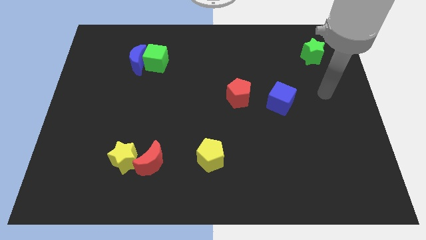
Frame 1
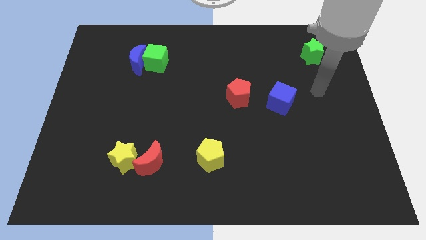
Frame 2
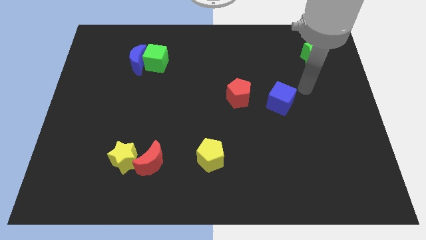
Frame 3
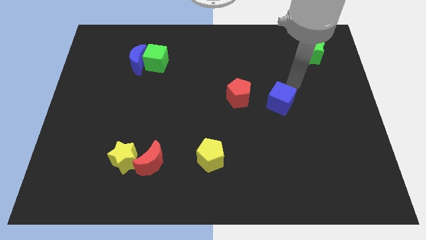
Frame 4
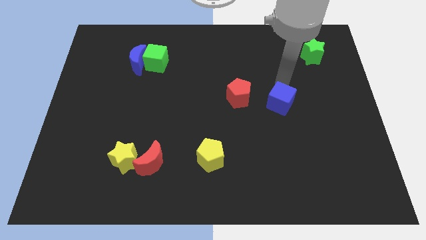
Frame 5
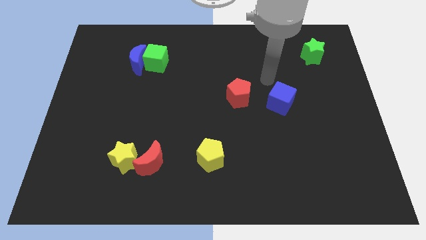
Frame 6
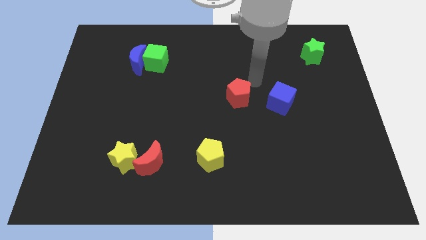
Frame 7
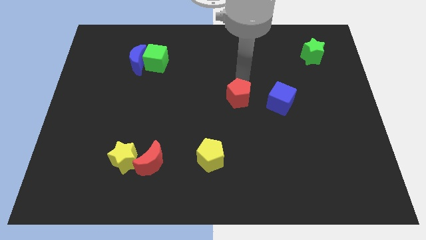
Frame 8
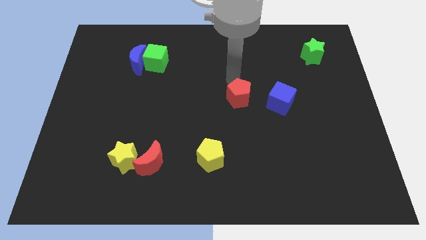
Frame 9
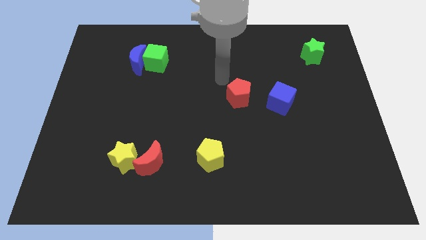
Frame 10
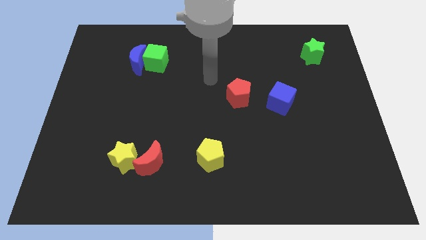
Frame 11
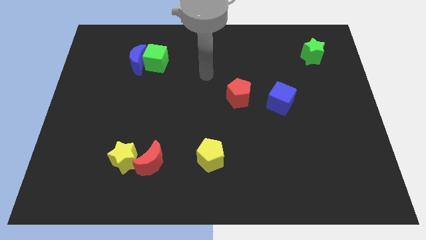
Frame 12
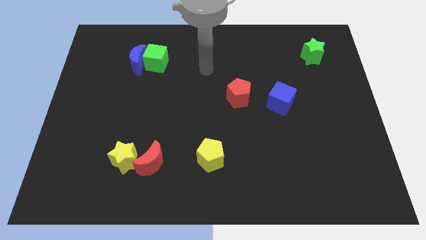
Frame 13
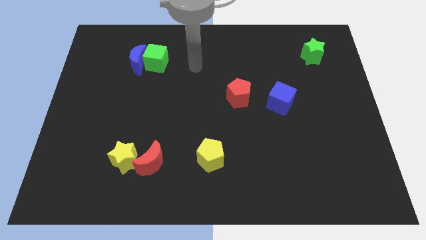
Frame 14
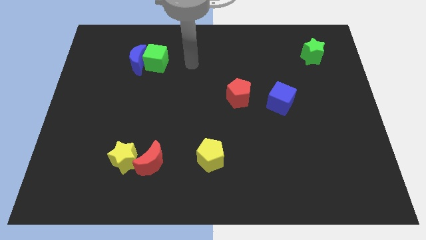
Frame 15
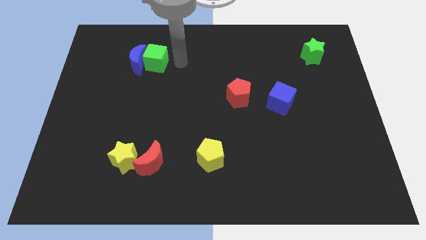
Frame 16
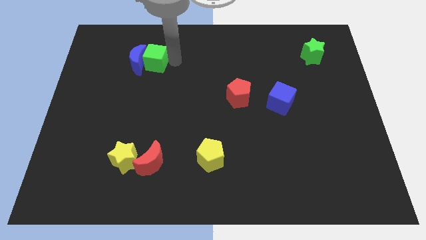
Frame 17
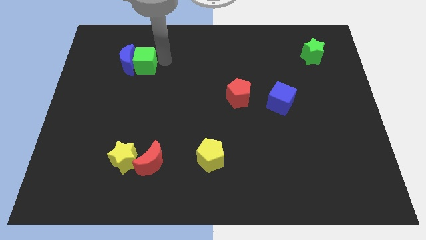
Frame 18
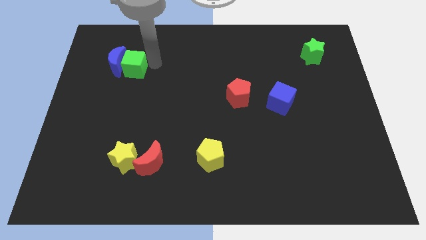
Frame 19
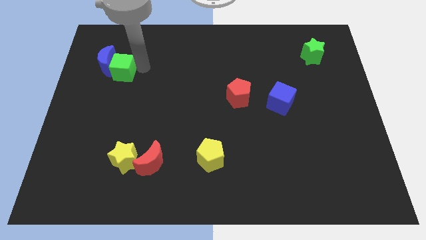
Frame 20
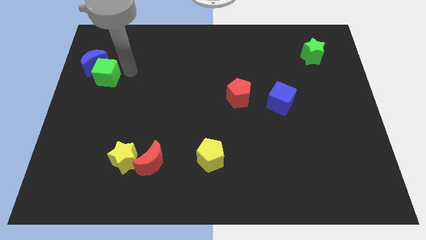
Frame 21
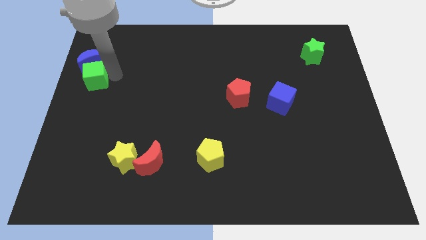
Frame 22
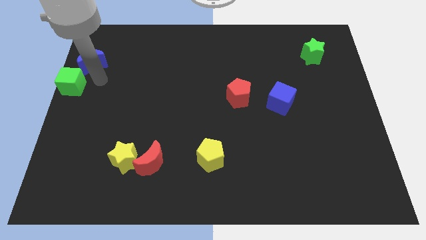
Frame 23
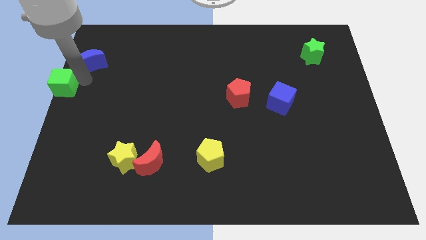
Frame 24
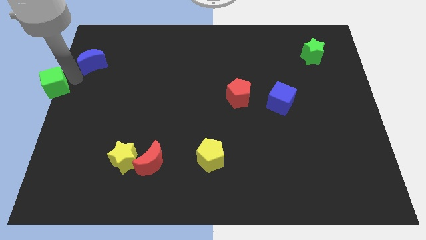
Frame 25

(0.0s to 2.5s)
move the blue moon away from the green cube

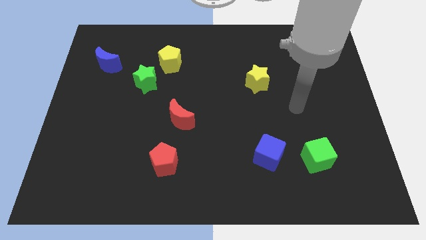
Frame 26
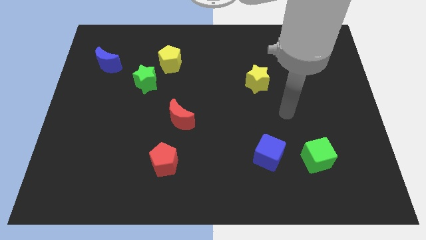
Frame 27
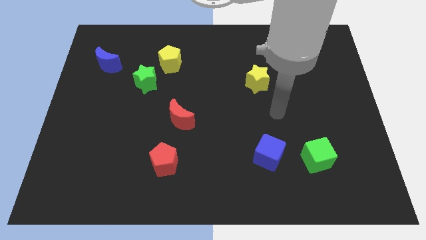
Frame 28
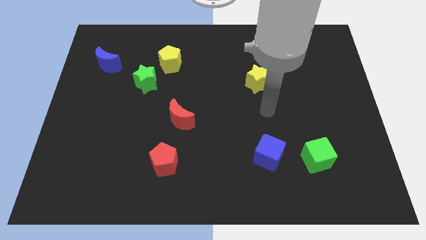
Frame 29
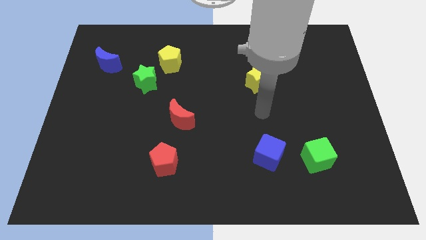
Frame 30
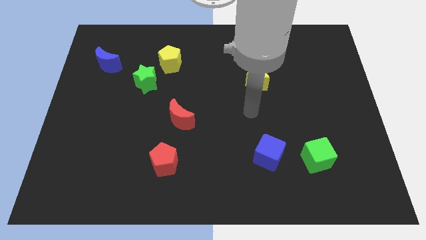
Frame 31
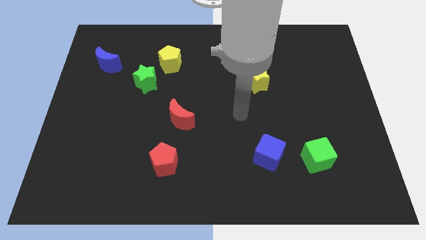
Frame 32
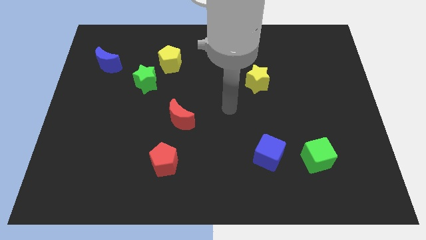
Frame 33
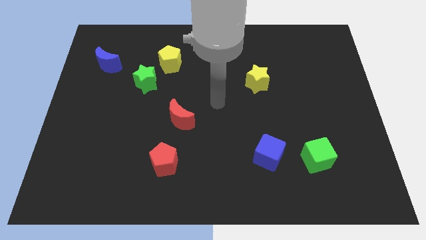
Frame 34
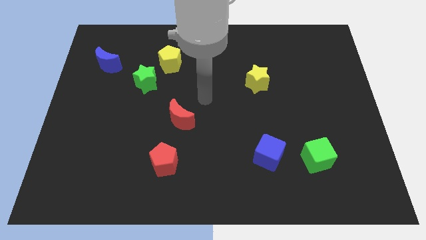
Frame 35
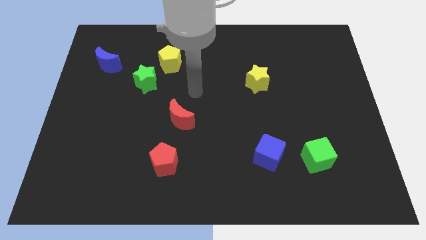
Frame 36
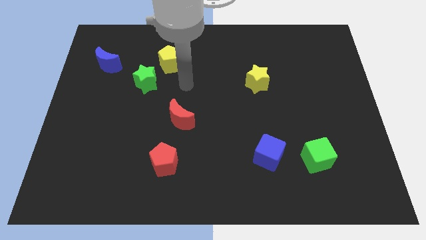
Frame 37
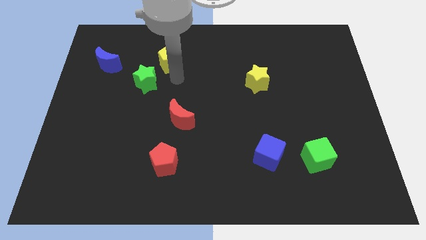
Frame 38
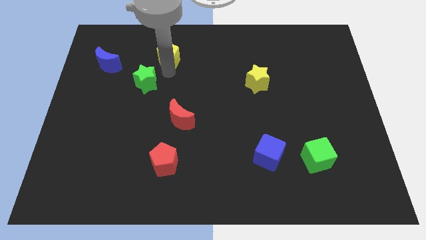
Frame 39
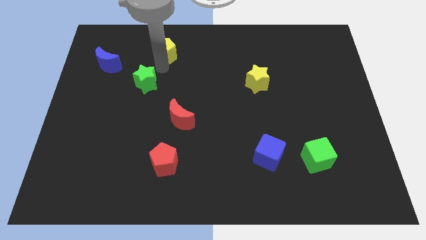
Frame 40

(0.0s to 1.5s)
pull the green star apart from the yellow pentagon

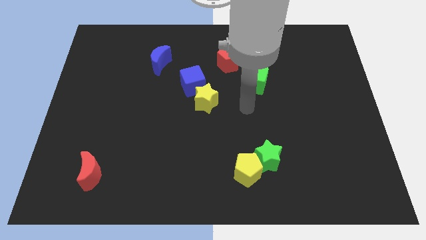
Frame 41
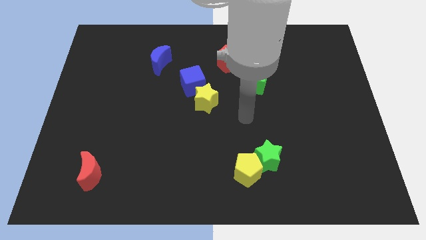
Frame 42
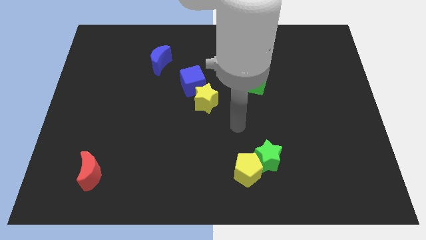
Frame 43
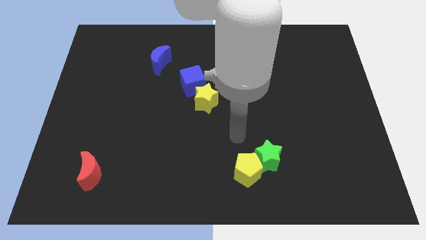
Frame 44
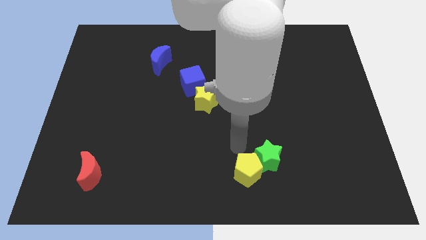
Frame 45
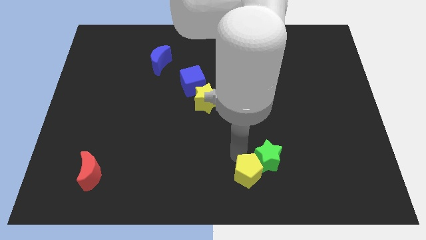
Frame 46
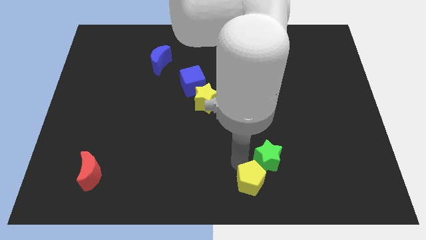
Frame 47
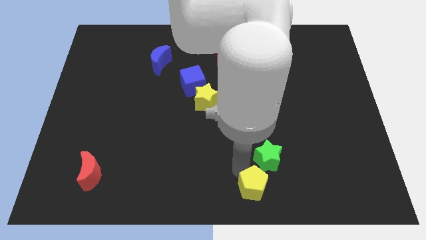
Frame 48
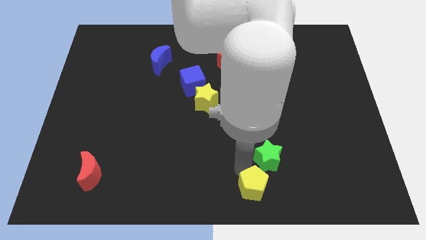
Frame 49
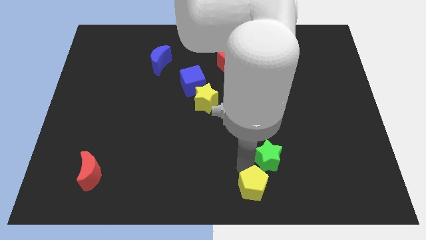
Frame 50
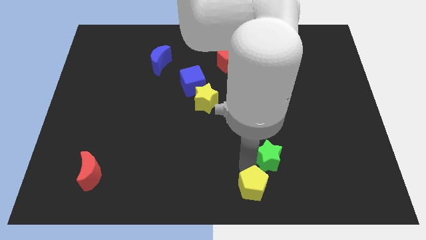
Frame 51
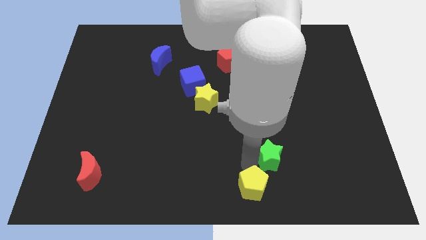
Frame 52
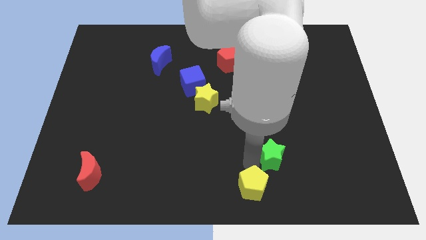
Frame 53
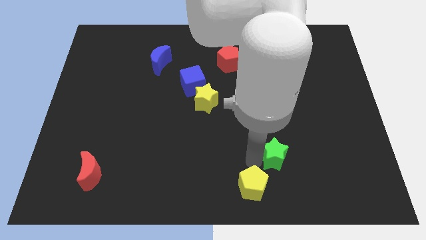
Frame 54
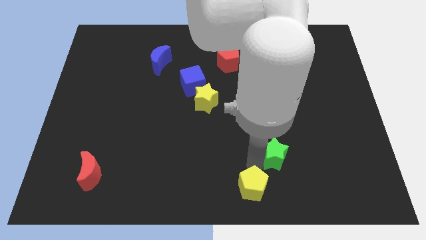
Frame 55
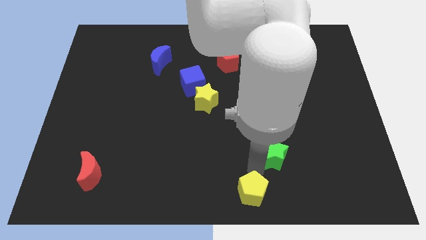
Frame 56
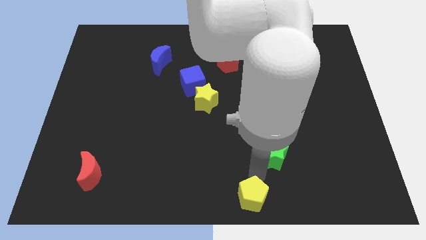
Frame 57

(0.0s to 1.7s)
separate the green star from the yellow pentagon

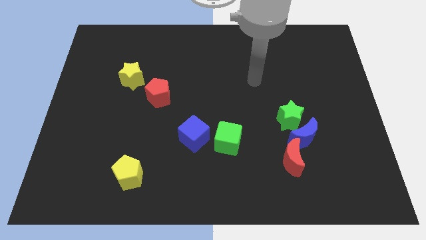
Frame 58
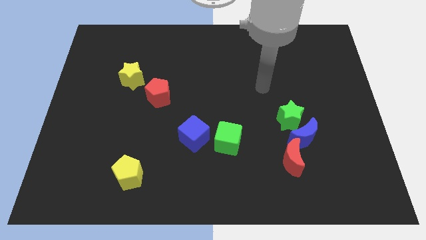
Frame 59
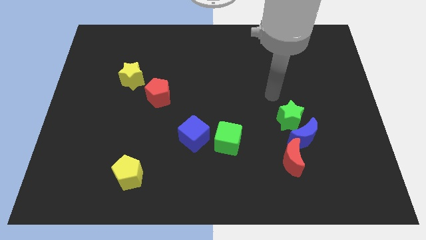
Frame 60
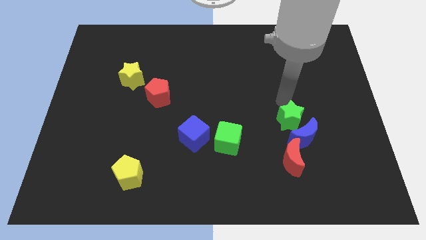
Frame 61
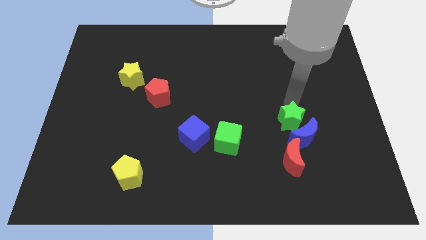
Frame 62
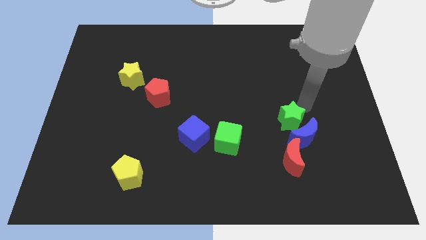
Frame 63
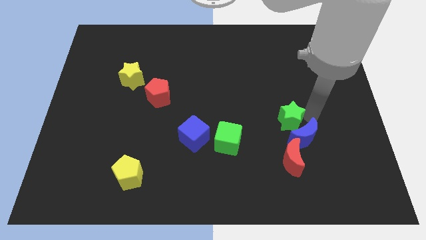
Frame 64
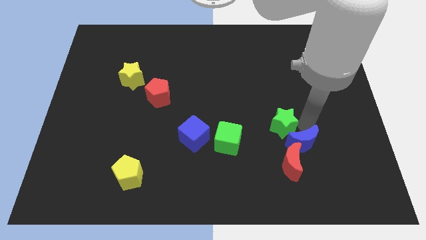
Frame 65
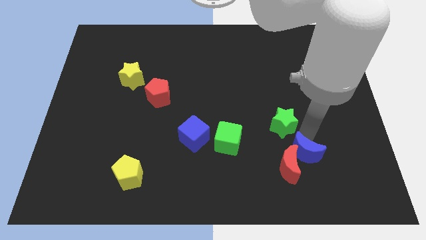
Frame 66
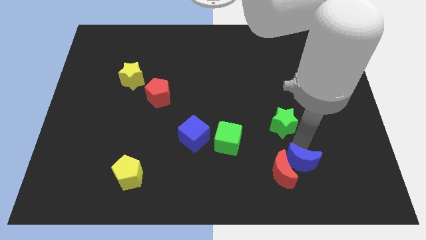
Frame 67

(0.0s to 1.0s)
separate the green star from the blue moon

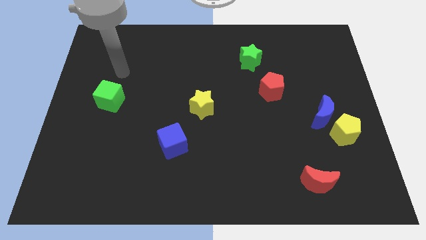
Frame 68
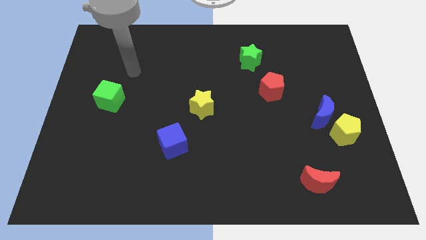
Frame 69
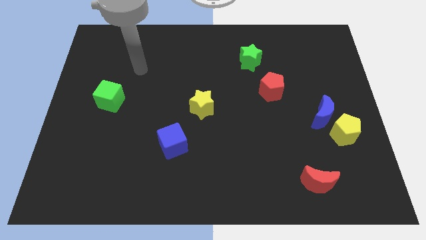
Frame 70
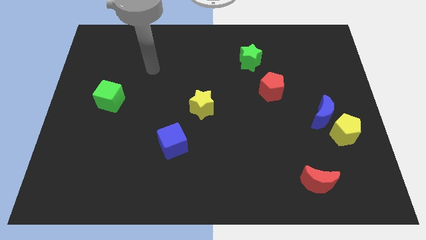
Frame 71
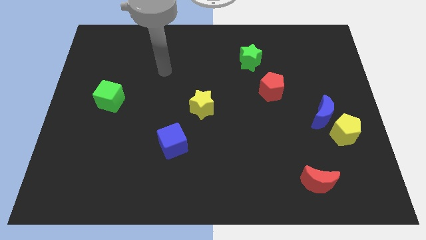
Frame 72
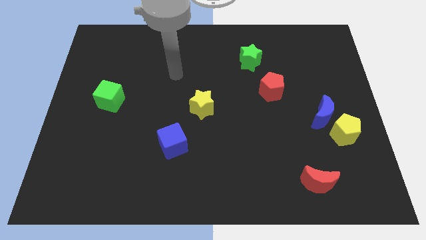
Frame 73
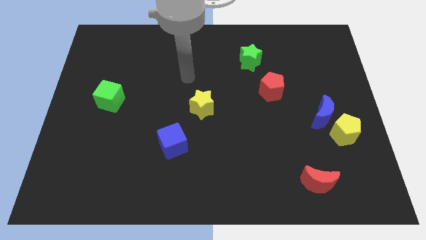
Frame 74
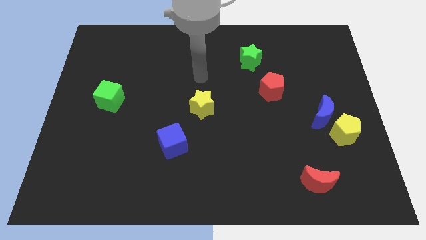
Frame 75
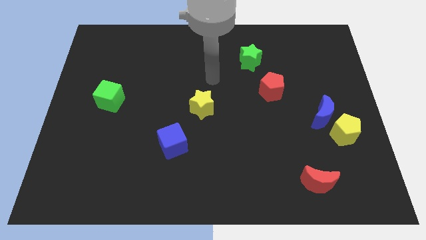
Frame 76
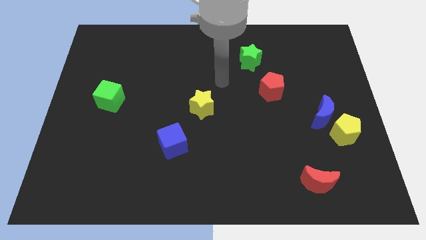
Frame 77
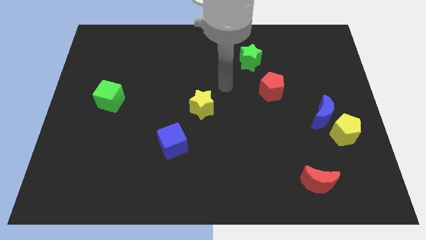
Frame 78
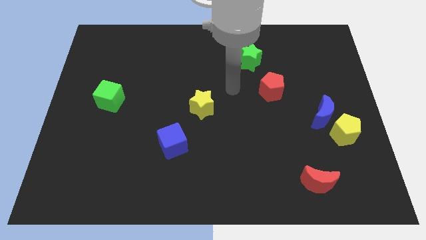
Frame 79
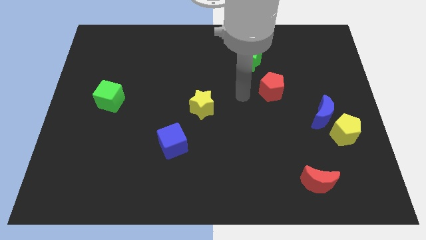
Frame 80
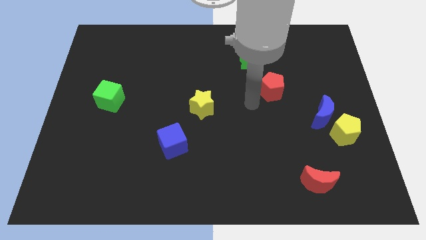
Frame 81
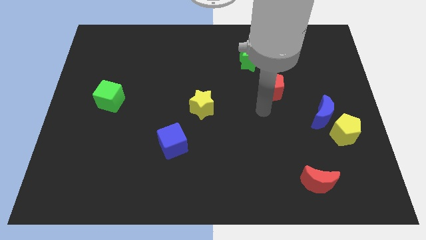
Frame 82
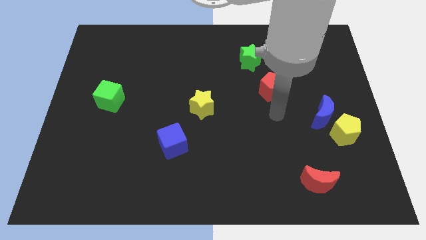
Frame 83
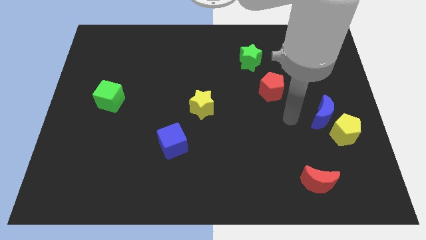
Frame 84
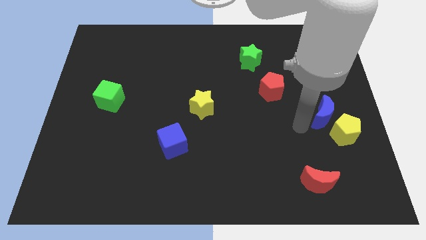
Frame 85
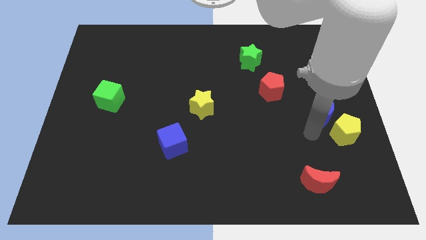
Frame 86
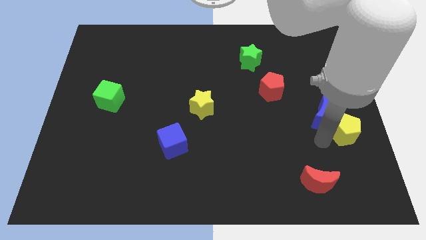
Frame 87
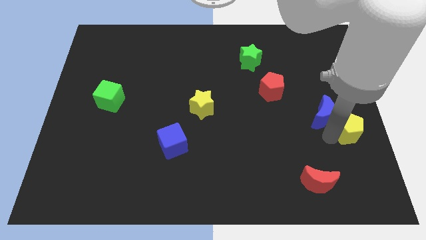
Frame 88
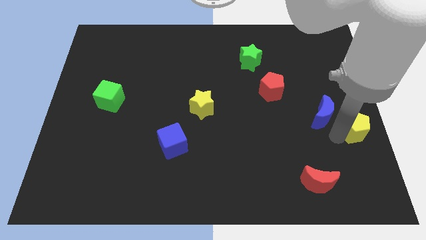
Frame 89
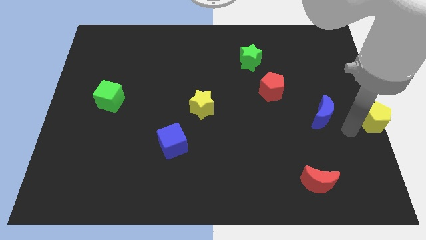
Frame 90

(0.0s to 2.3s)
pull the blue moon apart from the yellow pentagon
